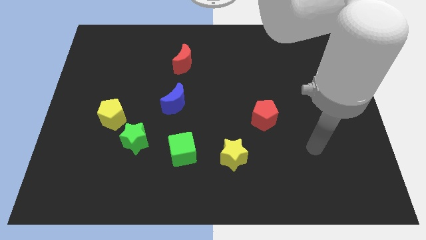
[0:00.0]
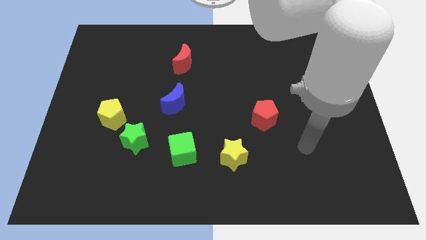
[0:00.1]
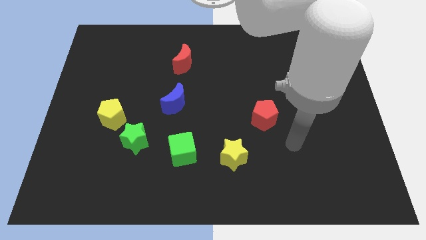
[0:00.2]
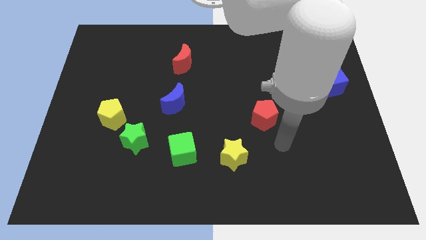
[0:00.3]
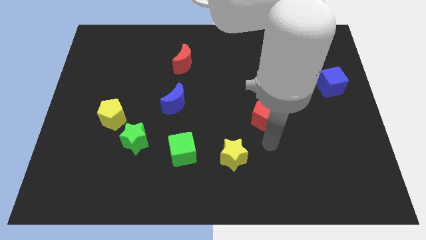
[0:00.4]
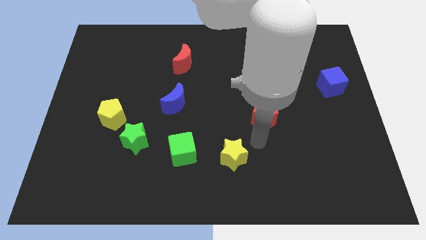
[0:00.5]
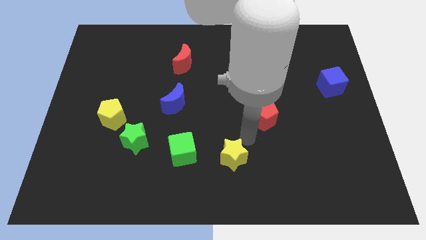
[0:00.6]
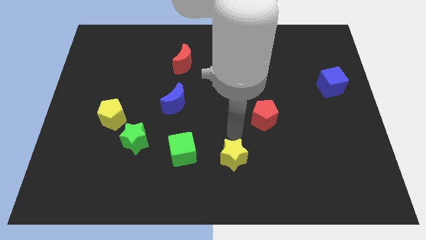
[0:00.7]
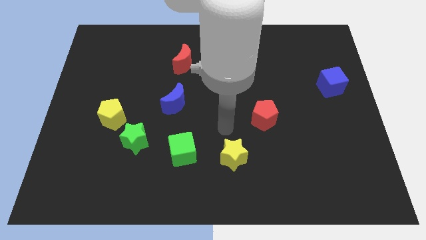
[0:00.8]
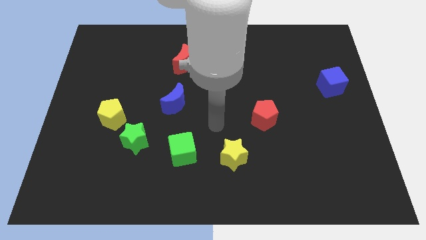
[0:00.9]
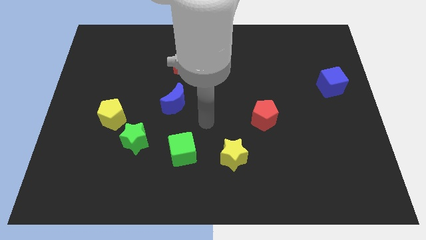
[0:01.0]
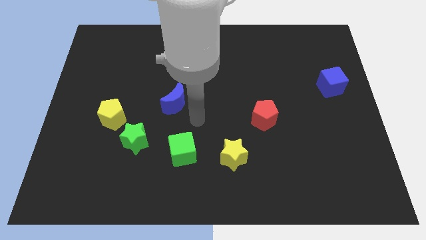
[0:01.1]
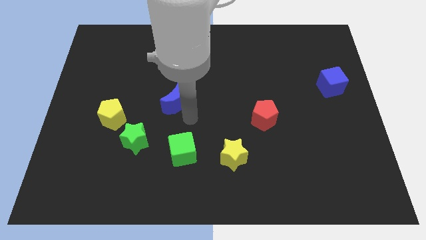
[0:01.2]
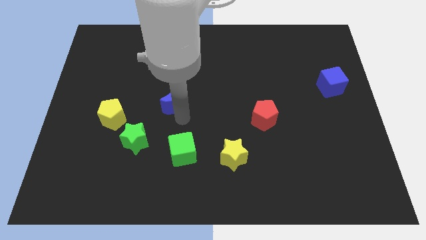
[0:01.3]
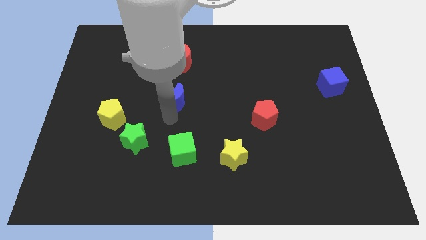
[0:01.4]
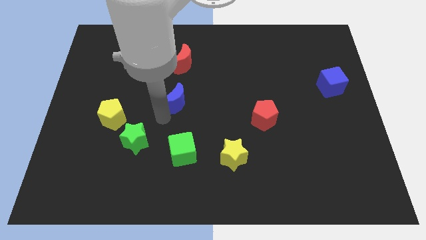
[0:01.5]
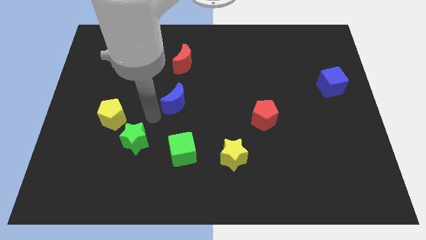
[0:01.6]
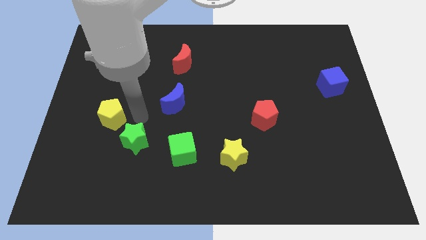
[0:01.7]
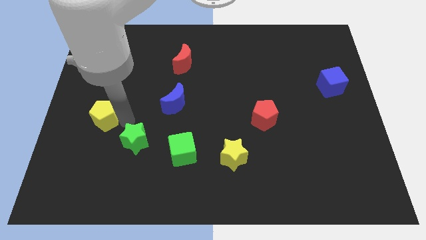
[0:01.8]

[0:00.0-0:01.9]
separate the green star from the yellow pentagon

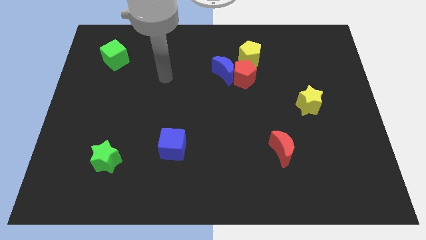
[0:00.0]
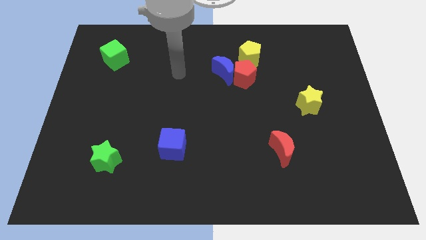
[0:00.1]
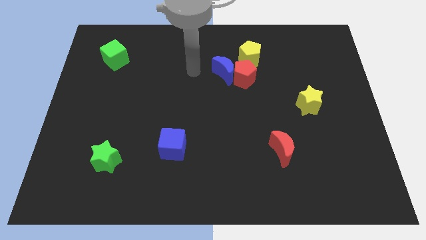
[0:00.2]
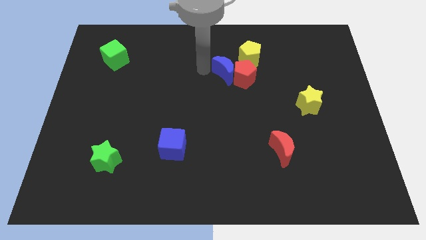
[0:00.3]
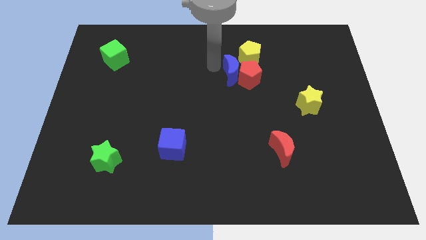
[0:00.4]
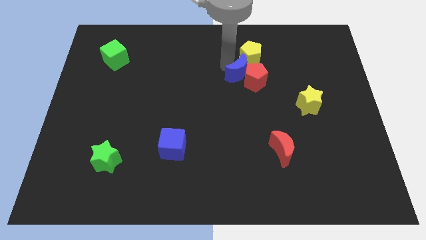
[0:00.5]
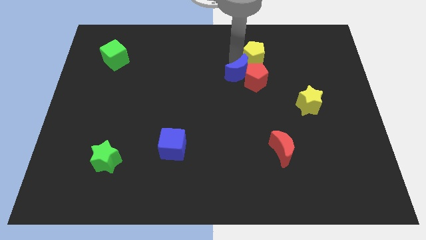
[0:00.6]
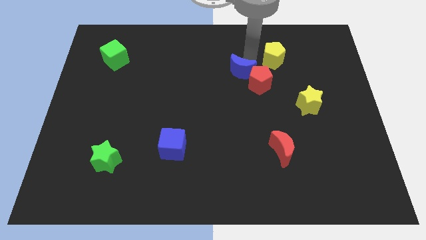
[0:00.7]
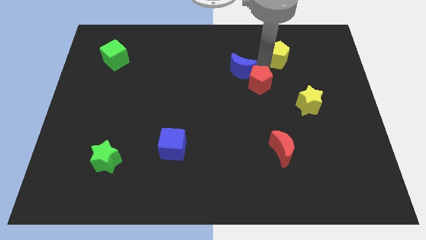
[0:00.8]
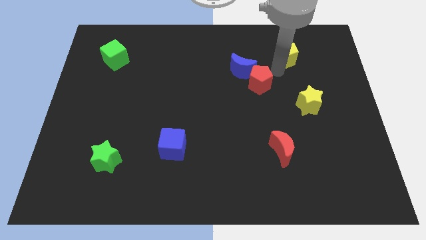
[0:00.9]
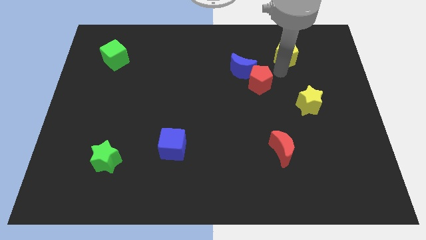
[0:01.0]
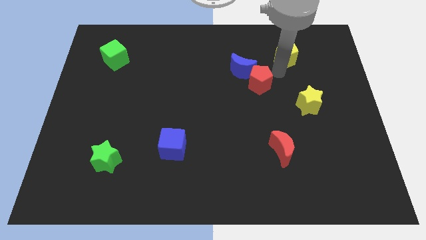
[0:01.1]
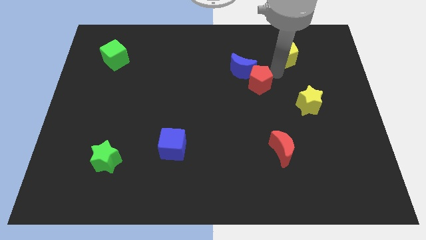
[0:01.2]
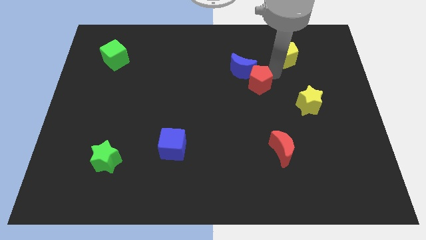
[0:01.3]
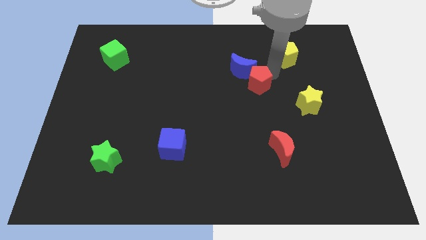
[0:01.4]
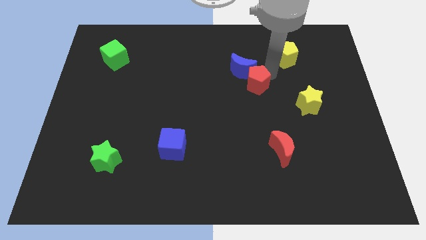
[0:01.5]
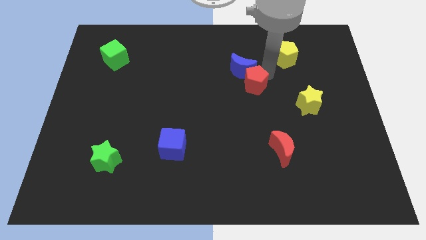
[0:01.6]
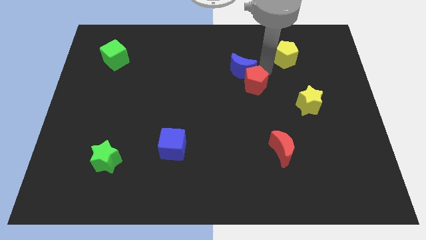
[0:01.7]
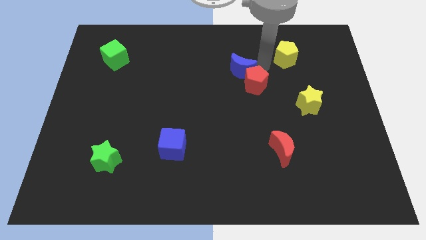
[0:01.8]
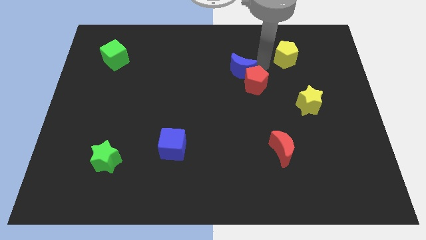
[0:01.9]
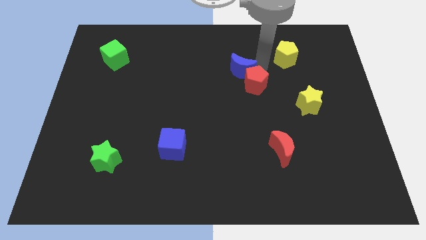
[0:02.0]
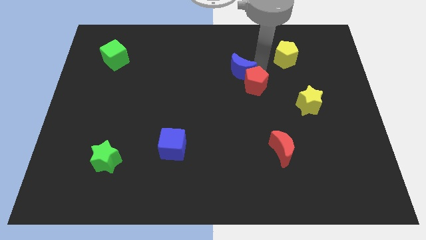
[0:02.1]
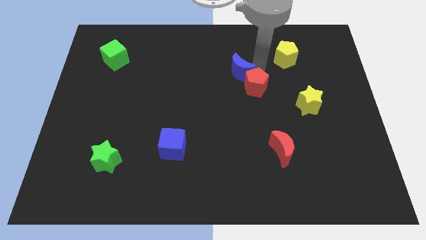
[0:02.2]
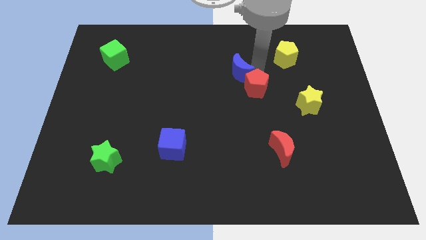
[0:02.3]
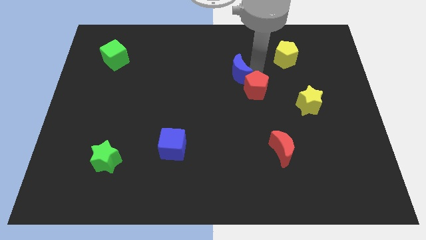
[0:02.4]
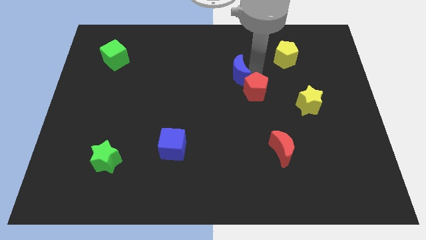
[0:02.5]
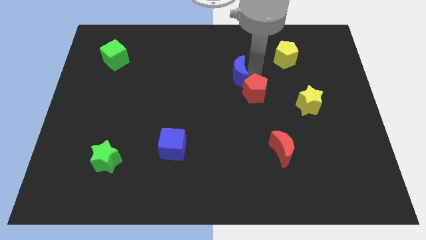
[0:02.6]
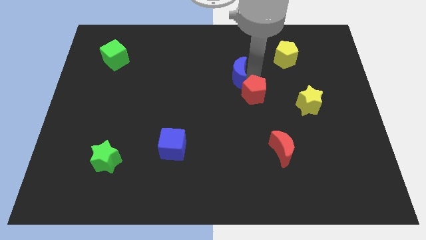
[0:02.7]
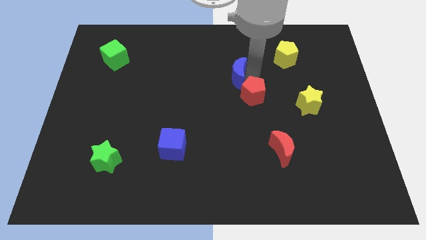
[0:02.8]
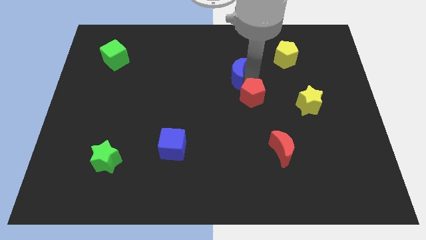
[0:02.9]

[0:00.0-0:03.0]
pull the red pentagon apart from the blue moon and yellow pentagon

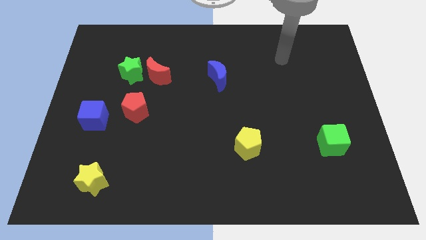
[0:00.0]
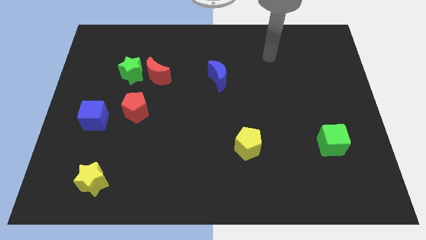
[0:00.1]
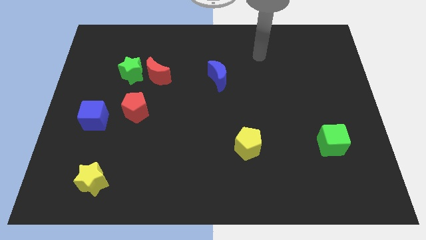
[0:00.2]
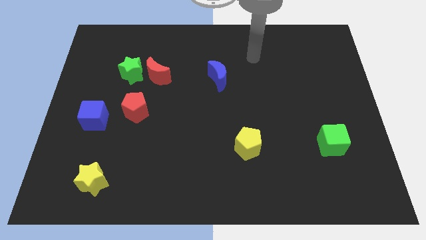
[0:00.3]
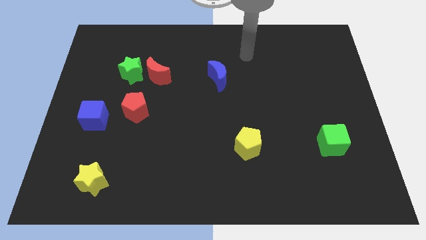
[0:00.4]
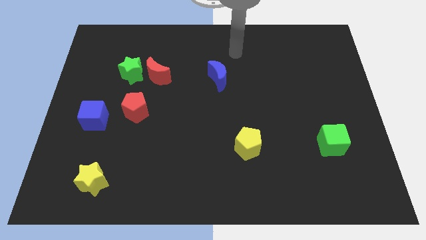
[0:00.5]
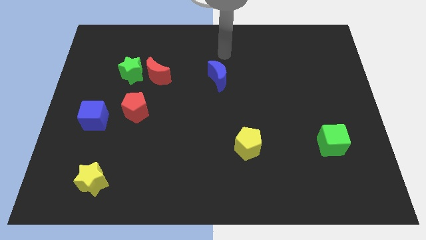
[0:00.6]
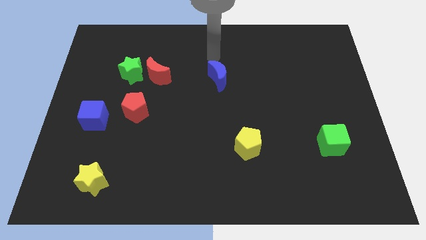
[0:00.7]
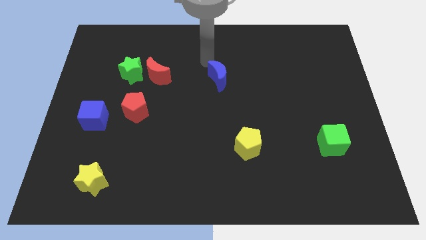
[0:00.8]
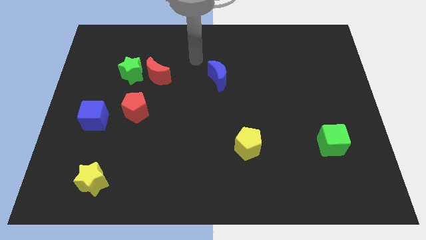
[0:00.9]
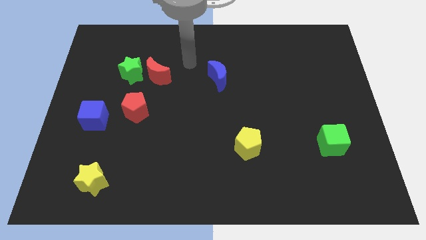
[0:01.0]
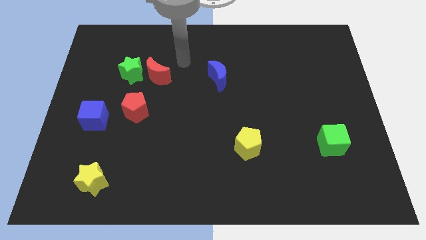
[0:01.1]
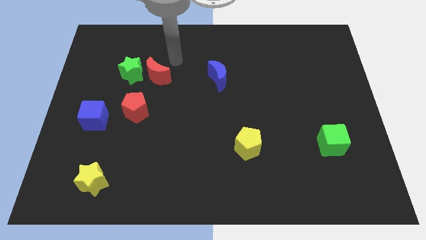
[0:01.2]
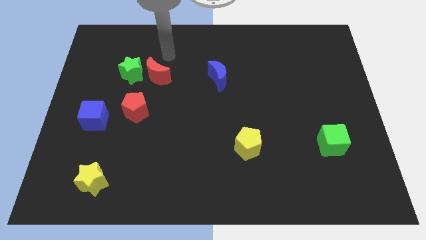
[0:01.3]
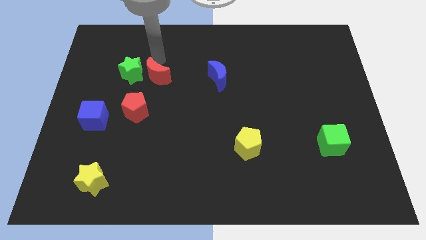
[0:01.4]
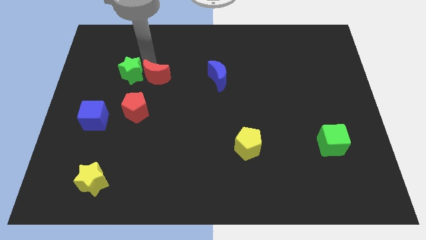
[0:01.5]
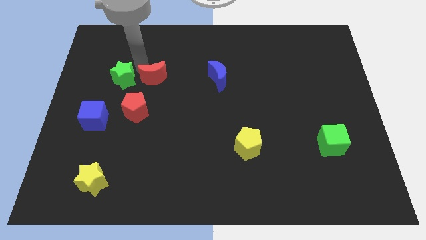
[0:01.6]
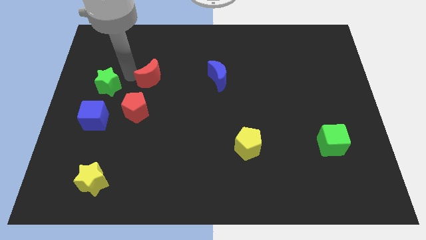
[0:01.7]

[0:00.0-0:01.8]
separate the red moon from the green star

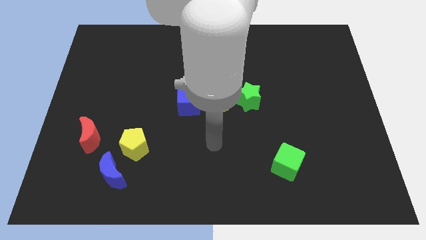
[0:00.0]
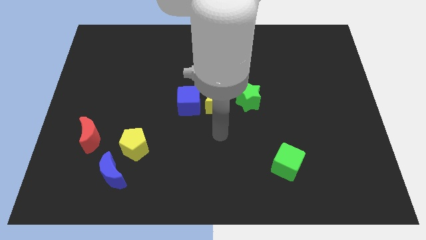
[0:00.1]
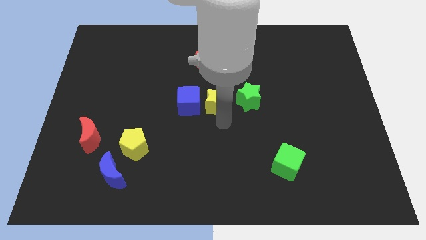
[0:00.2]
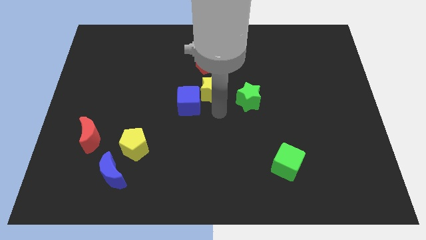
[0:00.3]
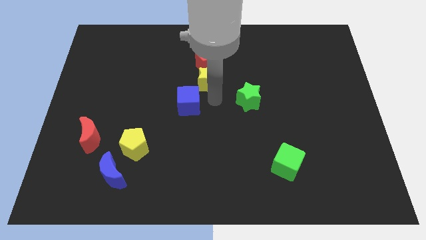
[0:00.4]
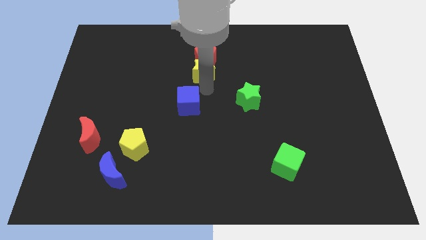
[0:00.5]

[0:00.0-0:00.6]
pull the blue cube apart from the yellow star

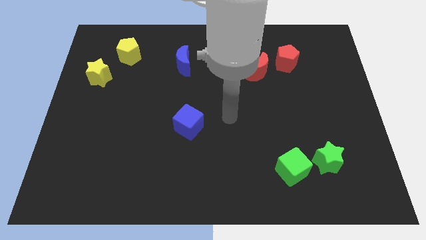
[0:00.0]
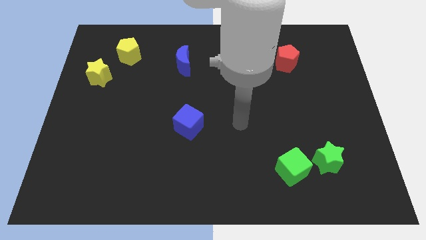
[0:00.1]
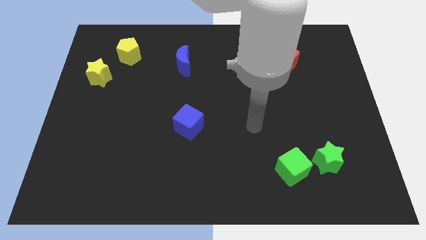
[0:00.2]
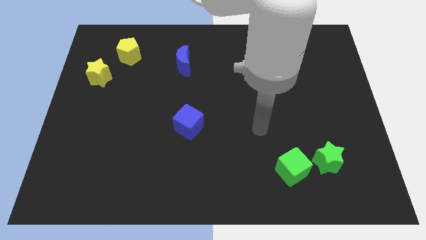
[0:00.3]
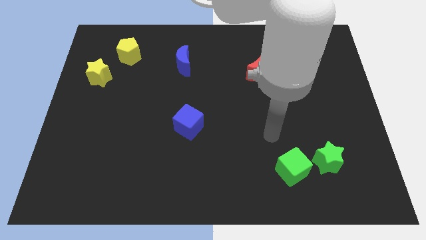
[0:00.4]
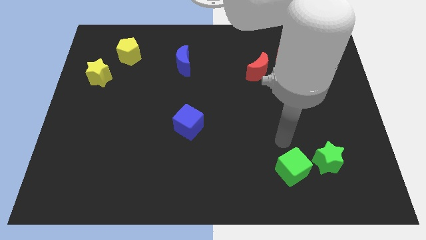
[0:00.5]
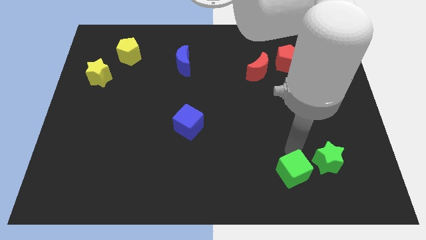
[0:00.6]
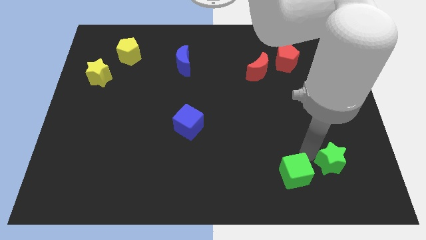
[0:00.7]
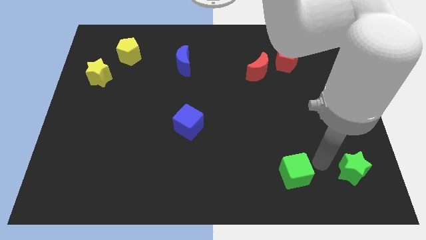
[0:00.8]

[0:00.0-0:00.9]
move the green cube away from the green star

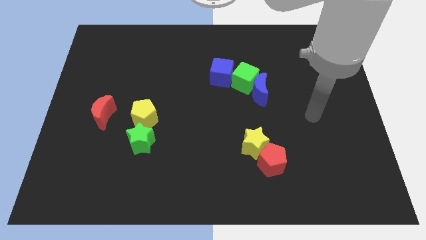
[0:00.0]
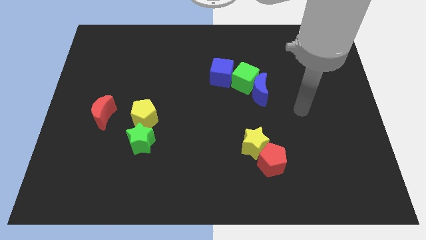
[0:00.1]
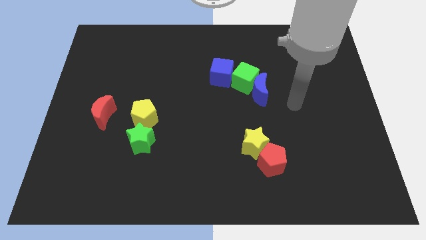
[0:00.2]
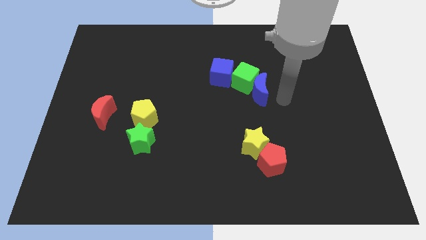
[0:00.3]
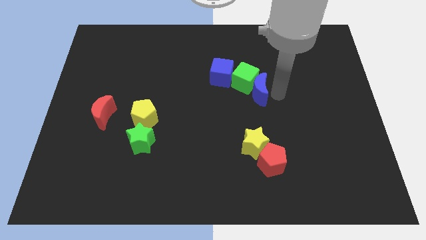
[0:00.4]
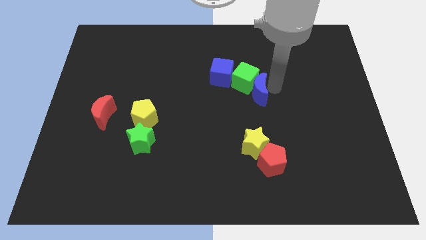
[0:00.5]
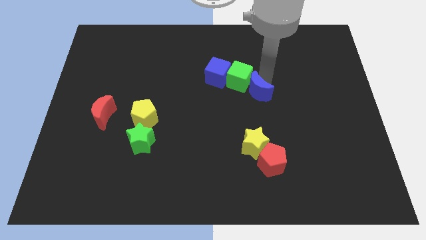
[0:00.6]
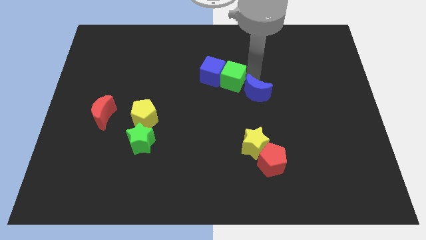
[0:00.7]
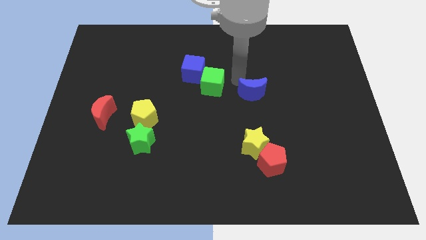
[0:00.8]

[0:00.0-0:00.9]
move the blue moon away from the green cube

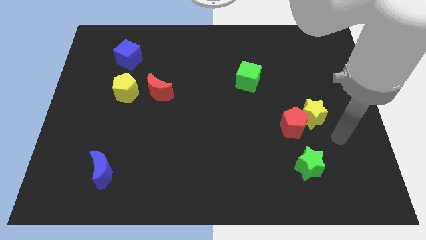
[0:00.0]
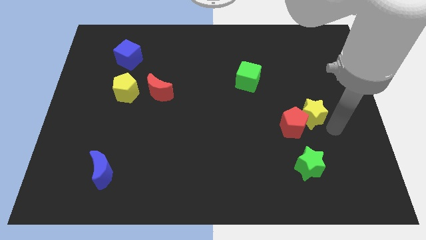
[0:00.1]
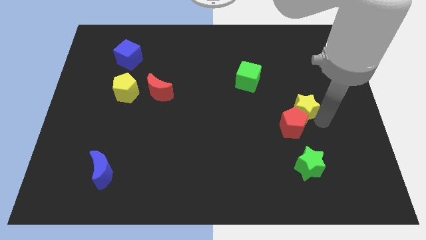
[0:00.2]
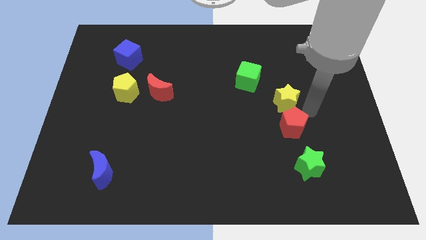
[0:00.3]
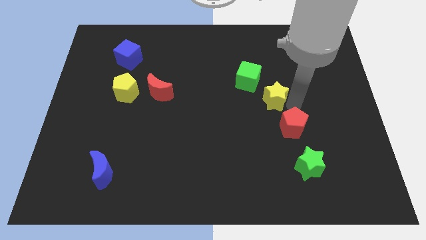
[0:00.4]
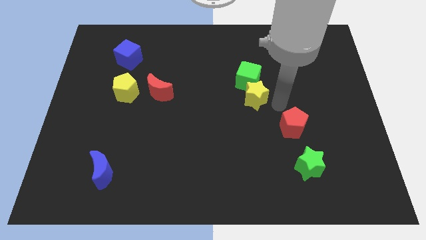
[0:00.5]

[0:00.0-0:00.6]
move the red pentagon away from the yellow star
